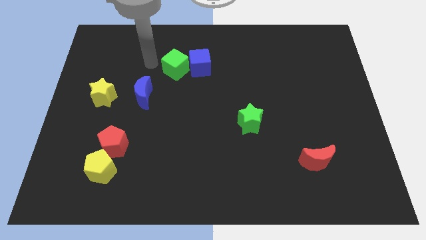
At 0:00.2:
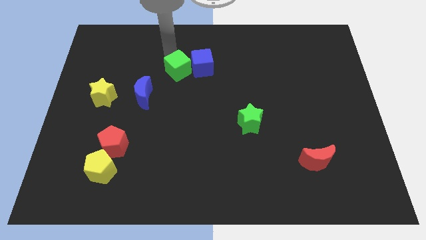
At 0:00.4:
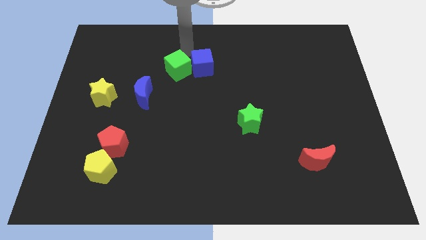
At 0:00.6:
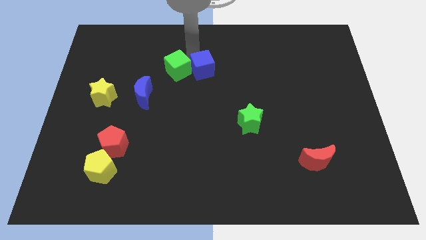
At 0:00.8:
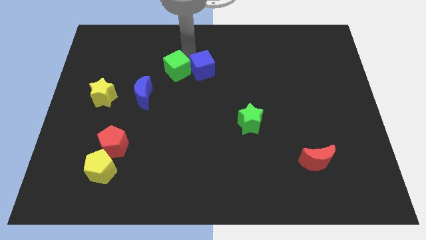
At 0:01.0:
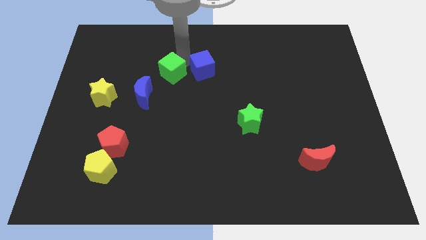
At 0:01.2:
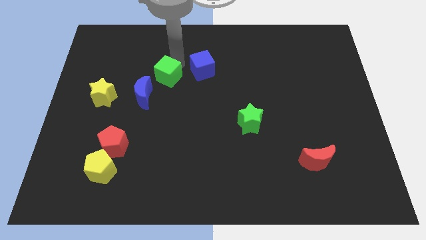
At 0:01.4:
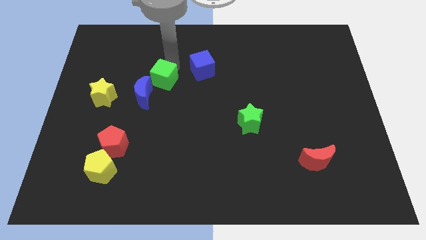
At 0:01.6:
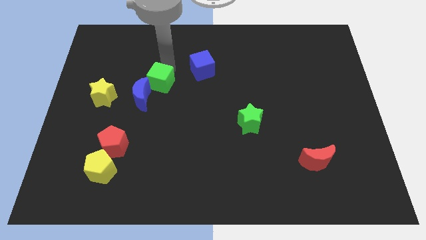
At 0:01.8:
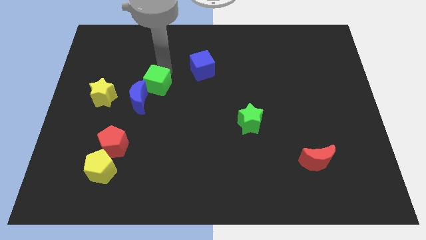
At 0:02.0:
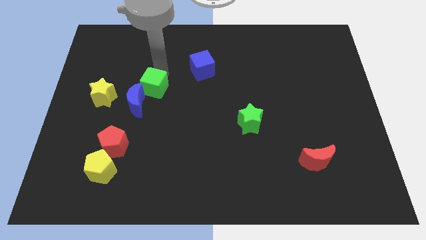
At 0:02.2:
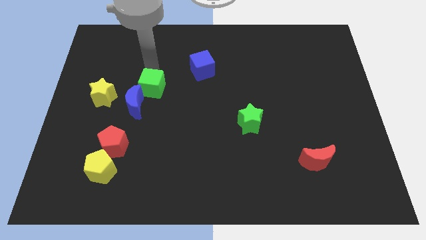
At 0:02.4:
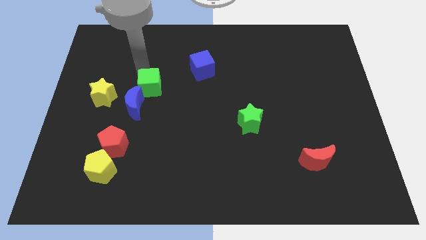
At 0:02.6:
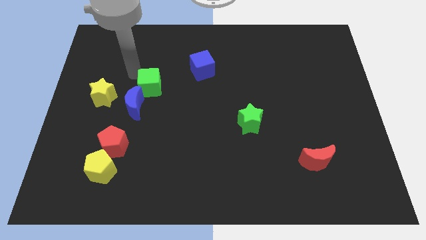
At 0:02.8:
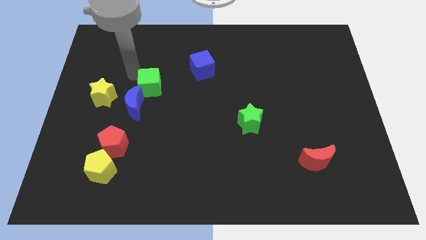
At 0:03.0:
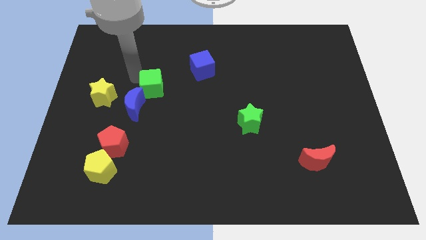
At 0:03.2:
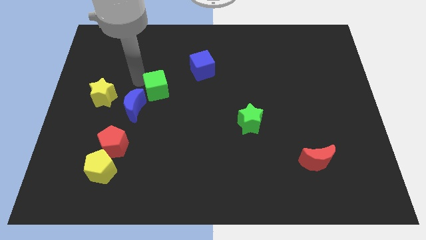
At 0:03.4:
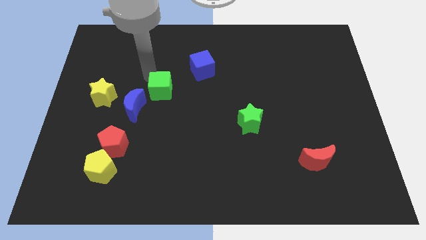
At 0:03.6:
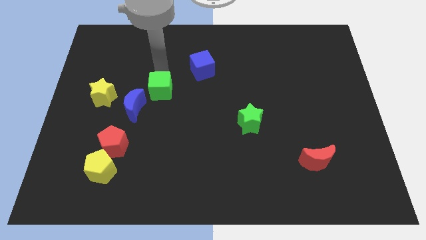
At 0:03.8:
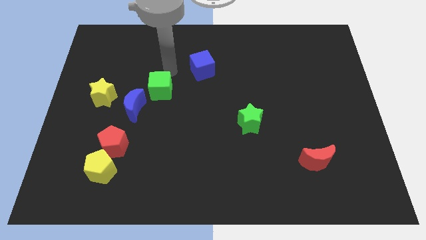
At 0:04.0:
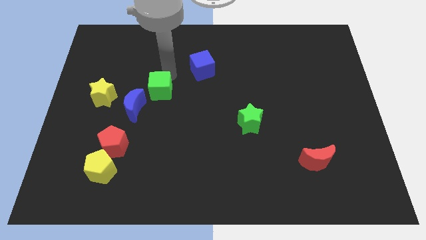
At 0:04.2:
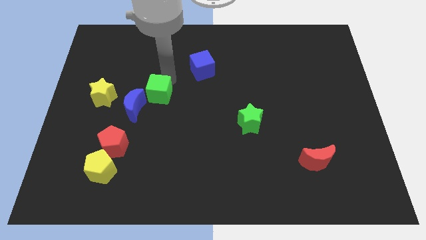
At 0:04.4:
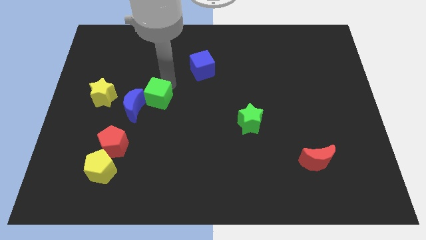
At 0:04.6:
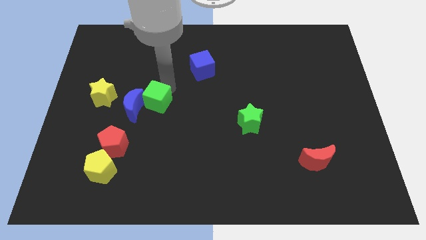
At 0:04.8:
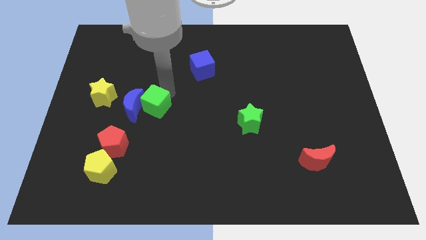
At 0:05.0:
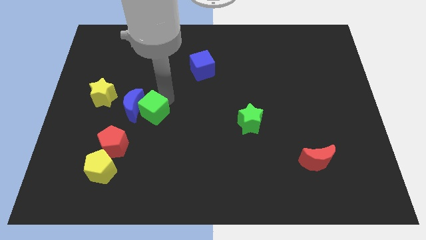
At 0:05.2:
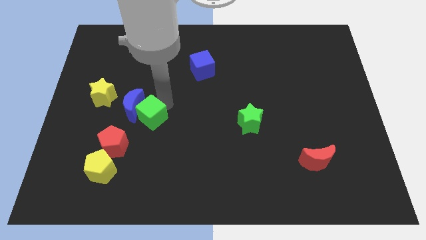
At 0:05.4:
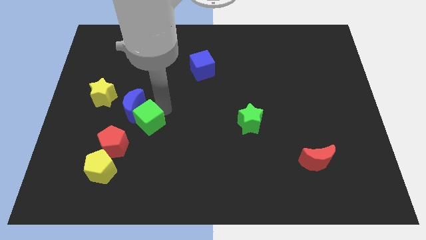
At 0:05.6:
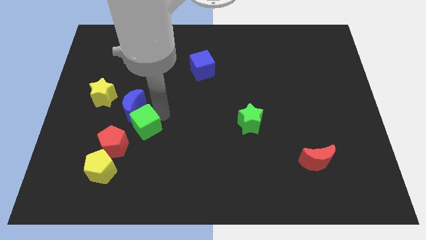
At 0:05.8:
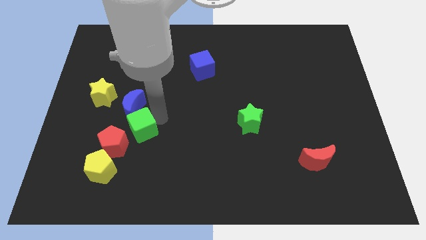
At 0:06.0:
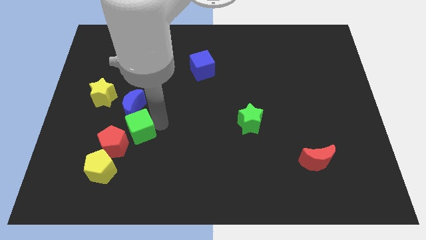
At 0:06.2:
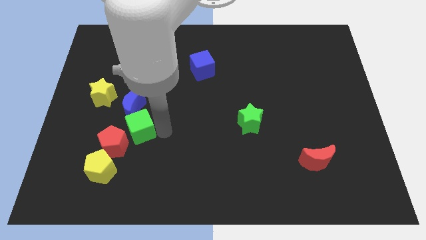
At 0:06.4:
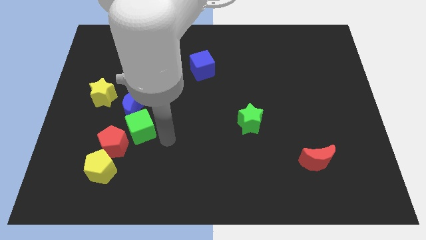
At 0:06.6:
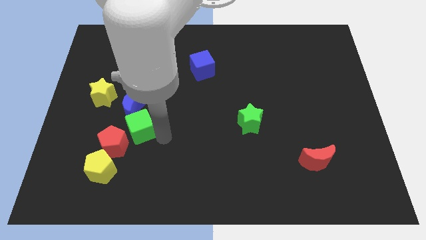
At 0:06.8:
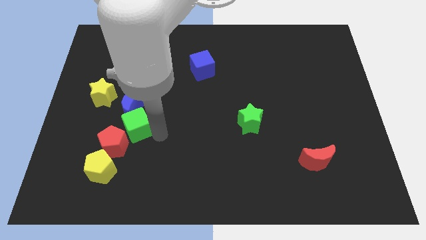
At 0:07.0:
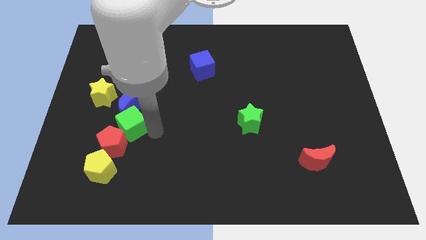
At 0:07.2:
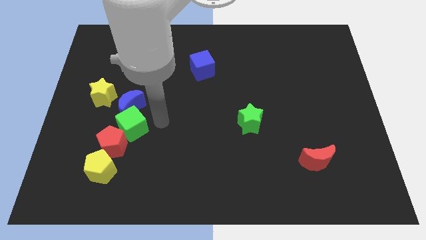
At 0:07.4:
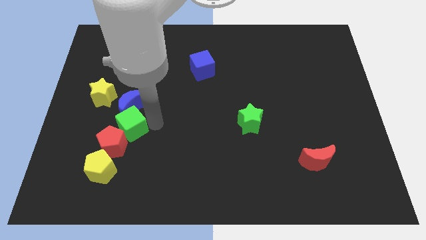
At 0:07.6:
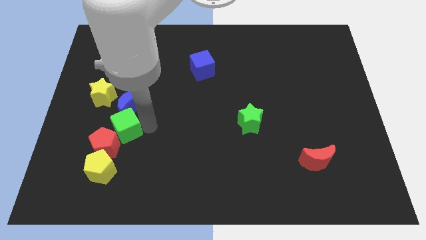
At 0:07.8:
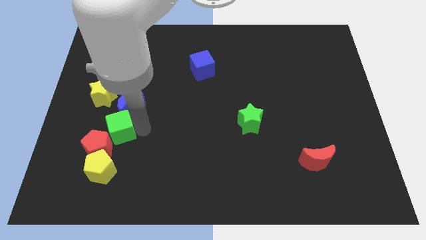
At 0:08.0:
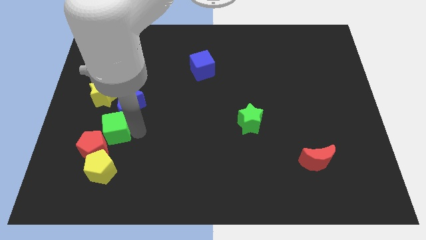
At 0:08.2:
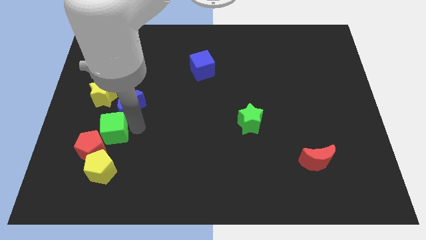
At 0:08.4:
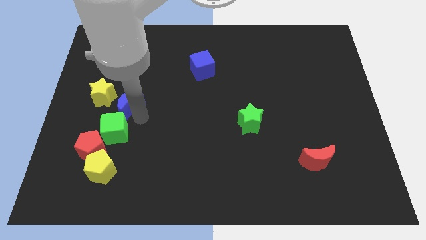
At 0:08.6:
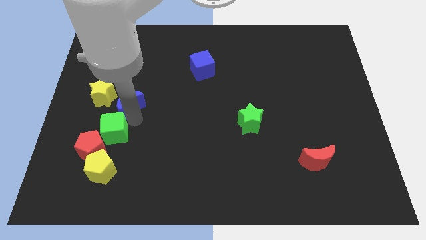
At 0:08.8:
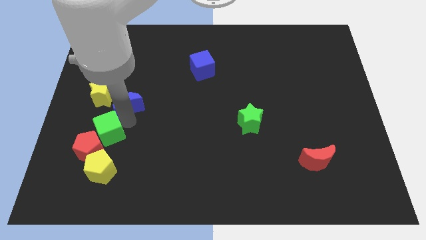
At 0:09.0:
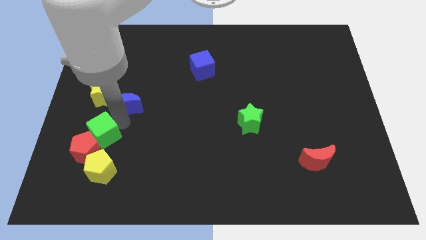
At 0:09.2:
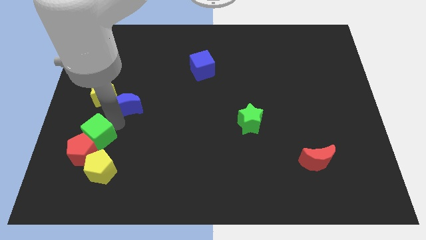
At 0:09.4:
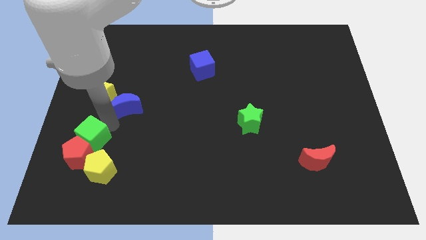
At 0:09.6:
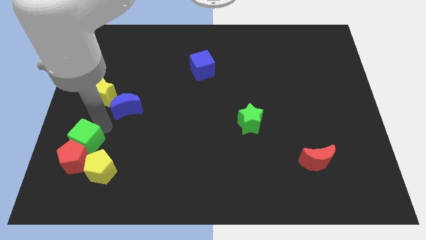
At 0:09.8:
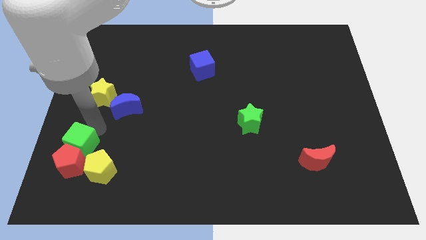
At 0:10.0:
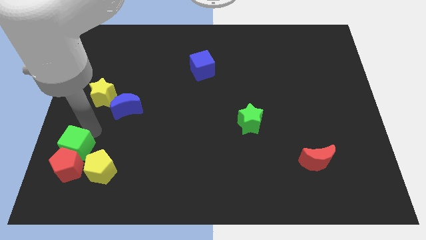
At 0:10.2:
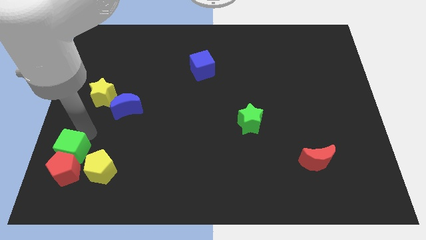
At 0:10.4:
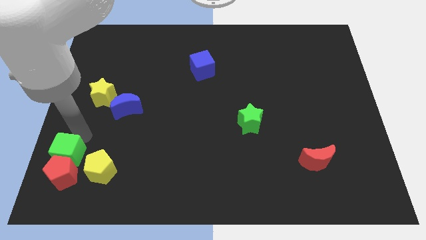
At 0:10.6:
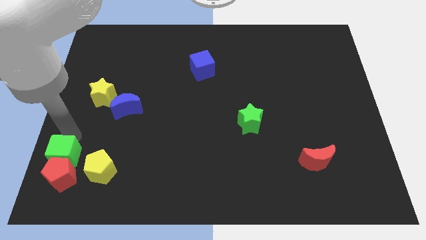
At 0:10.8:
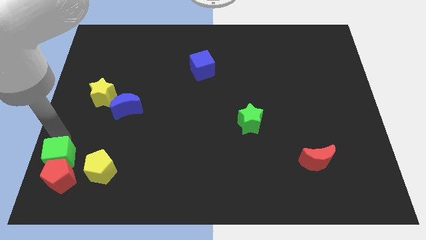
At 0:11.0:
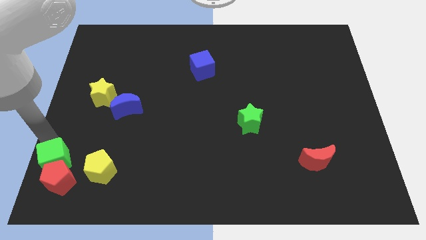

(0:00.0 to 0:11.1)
slide the green cube to the bottom left of the board

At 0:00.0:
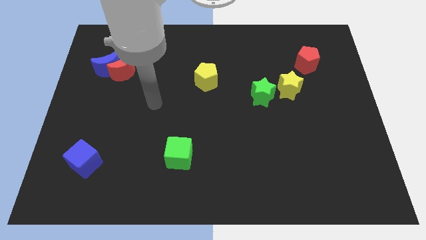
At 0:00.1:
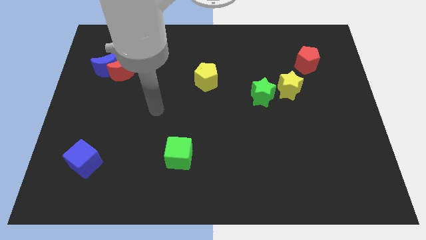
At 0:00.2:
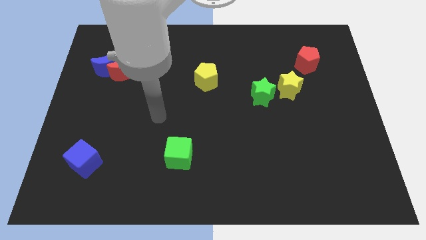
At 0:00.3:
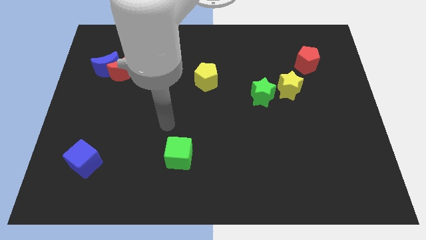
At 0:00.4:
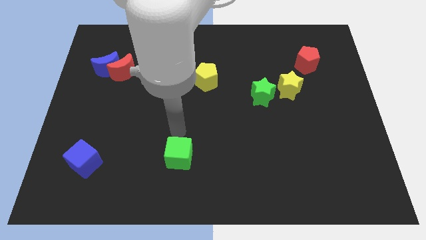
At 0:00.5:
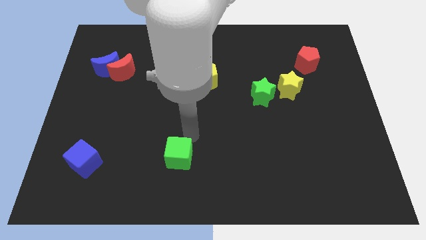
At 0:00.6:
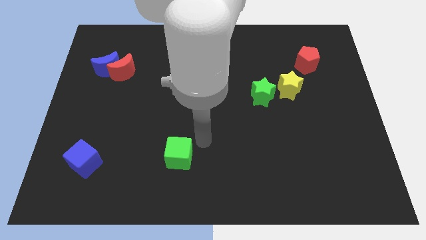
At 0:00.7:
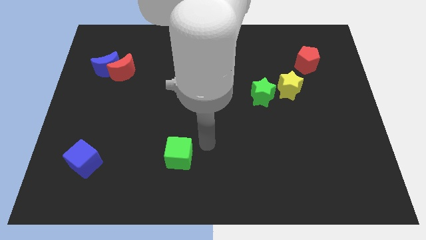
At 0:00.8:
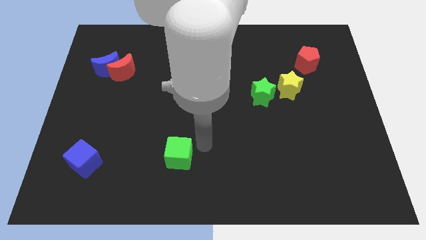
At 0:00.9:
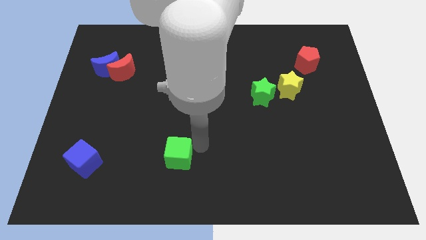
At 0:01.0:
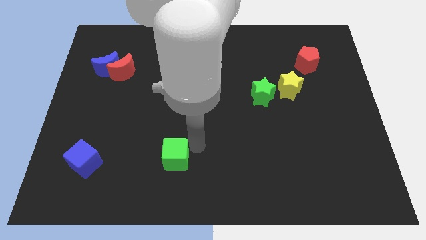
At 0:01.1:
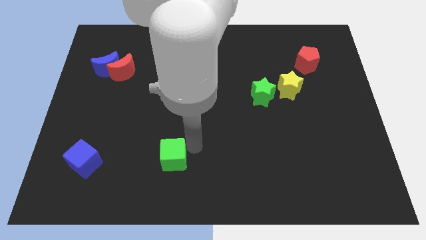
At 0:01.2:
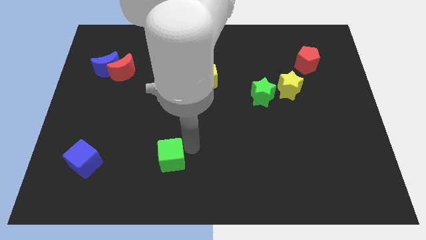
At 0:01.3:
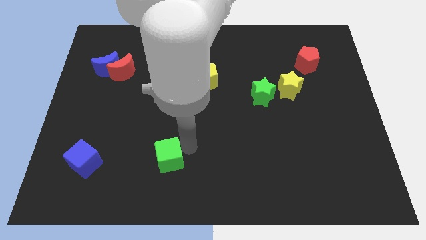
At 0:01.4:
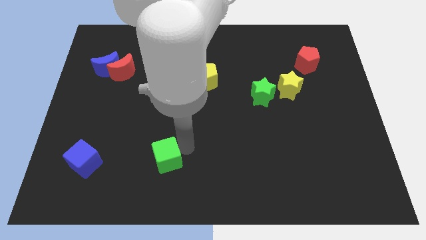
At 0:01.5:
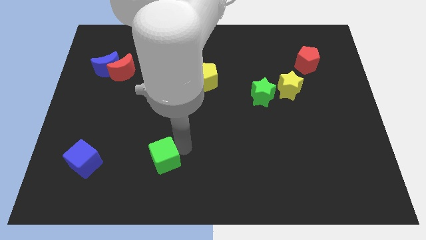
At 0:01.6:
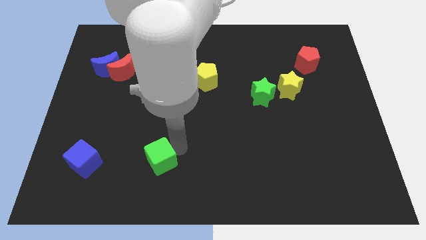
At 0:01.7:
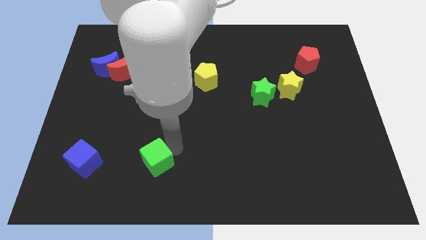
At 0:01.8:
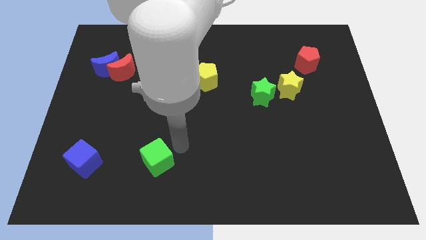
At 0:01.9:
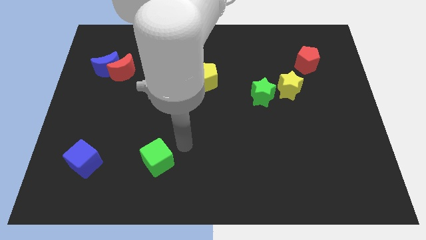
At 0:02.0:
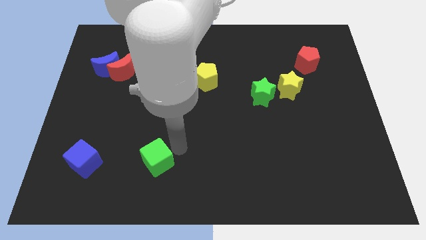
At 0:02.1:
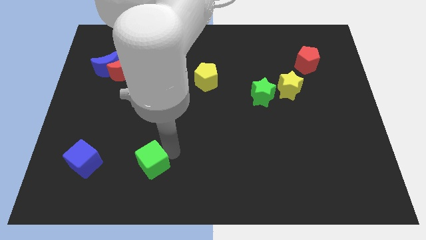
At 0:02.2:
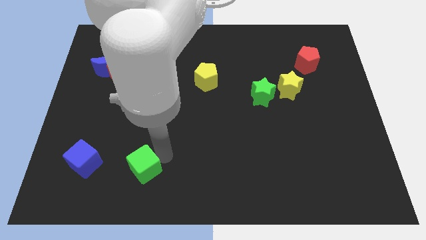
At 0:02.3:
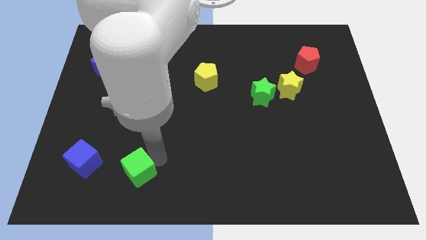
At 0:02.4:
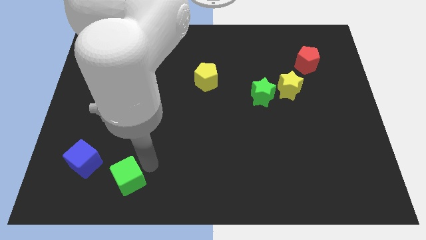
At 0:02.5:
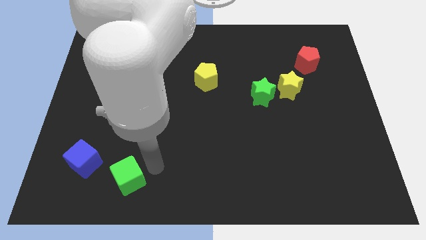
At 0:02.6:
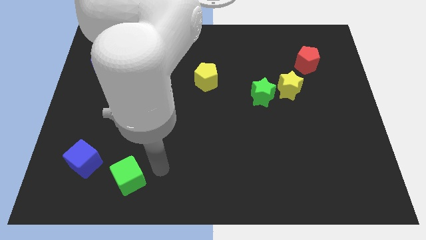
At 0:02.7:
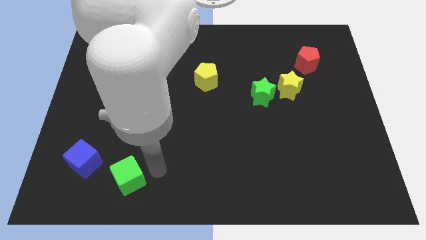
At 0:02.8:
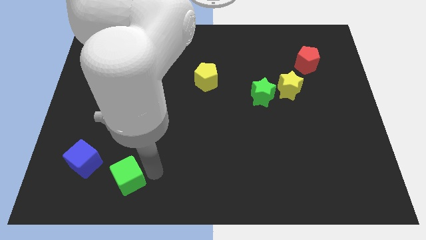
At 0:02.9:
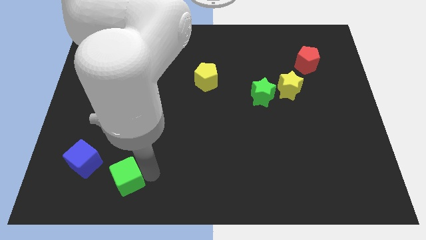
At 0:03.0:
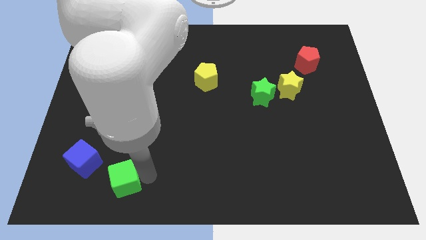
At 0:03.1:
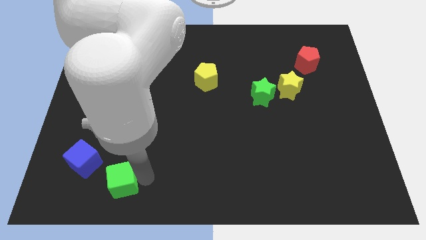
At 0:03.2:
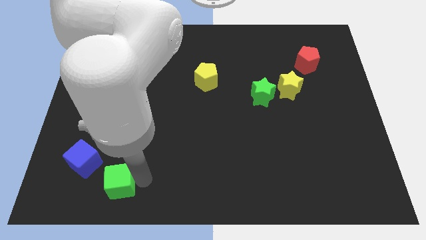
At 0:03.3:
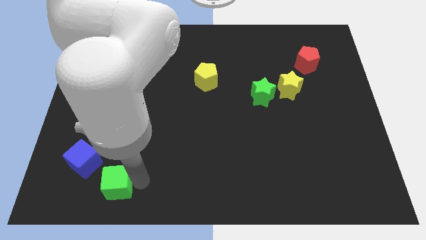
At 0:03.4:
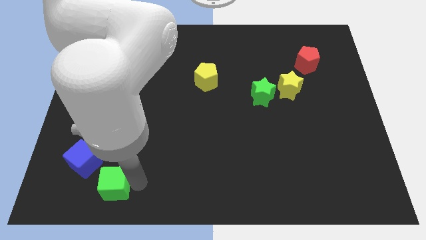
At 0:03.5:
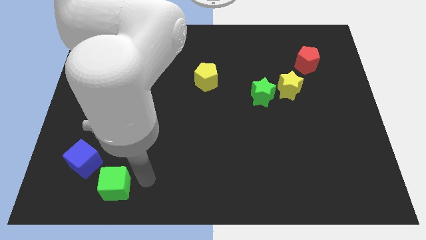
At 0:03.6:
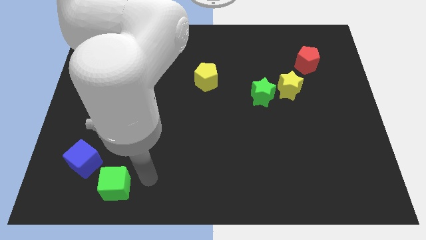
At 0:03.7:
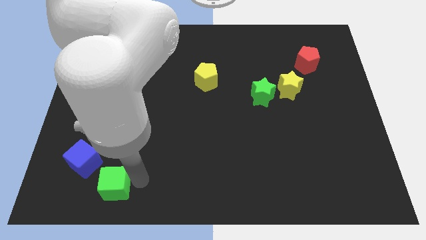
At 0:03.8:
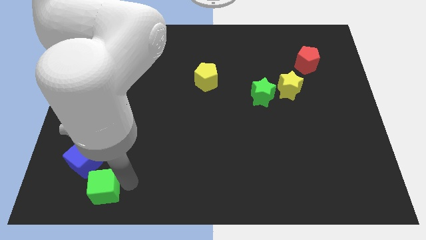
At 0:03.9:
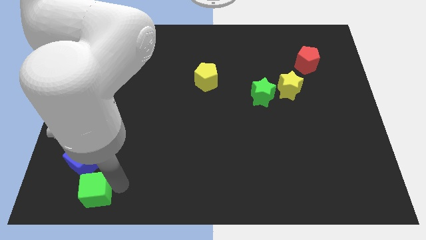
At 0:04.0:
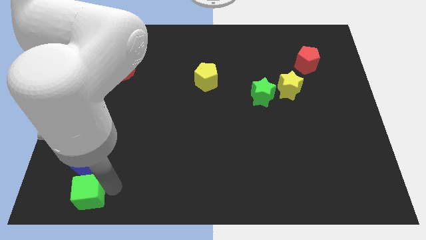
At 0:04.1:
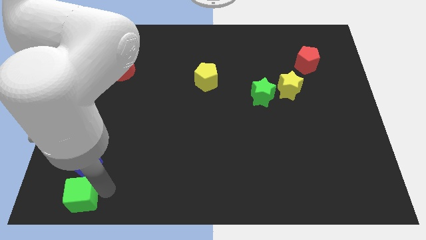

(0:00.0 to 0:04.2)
push the green cube to the lower left corner
